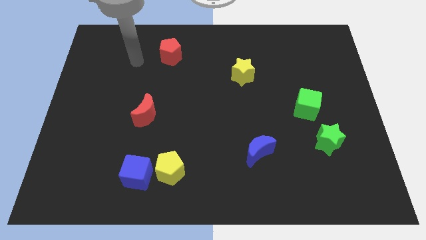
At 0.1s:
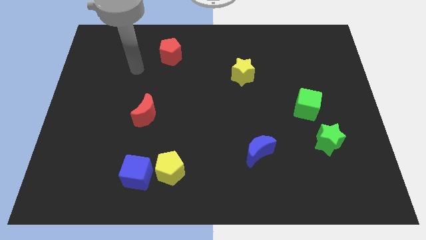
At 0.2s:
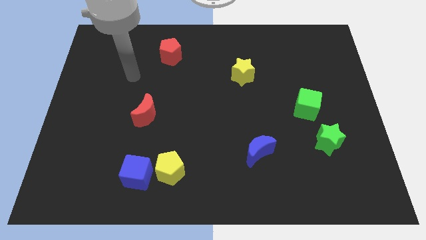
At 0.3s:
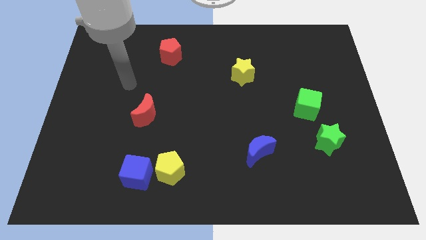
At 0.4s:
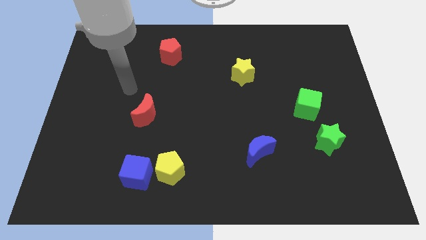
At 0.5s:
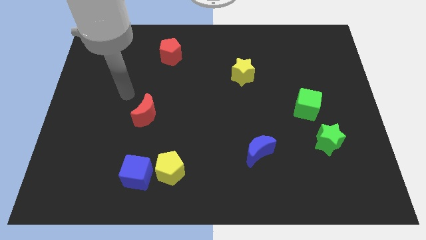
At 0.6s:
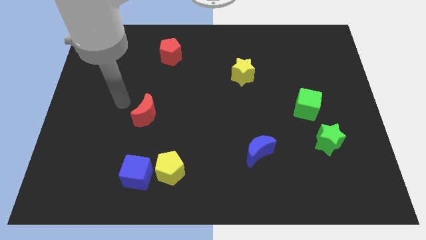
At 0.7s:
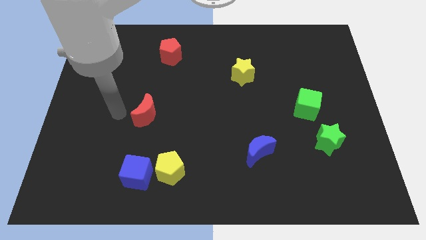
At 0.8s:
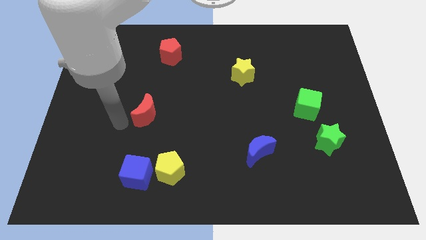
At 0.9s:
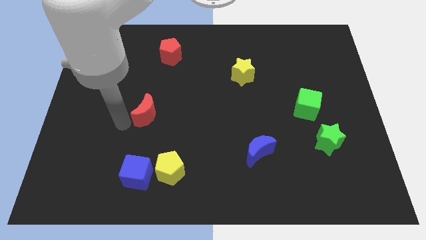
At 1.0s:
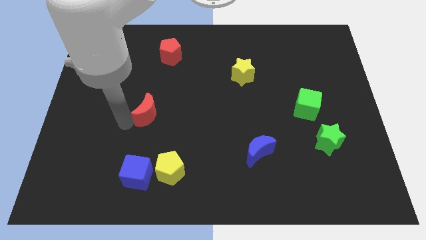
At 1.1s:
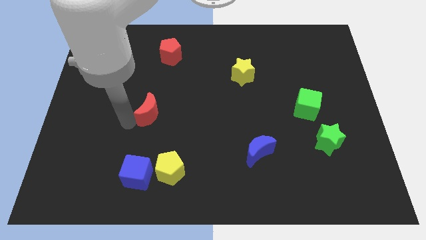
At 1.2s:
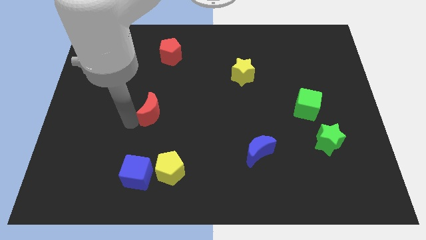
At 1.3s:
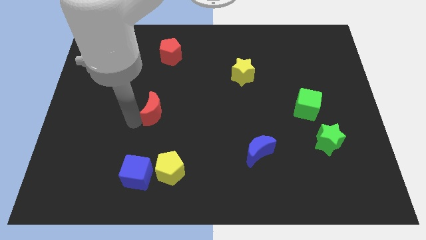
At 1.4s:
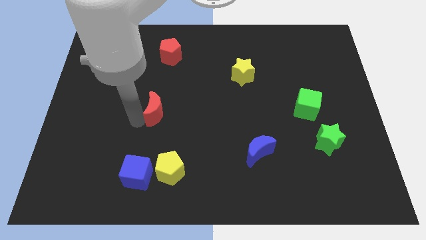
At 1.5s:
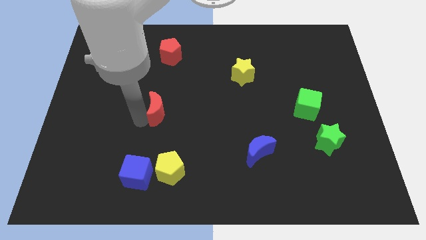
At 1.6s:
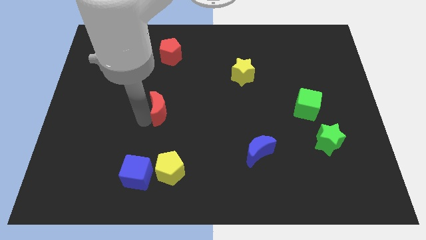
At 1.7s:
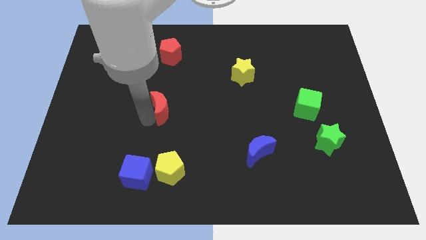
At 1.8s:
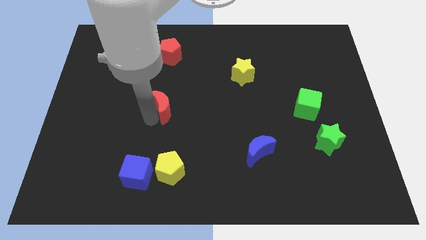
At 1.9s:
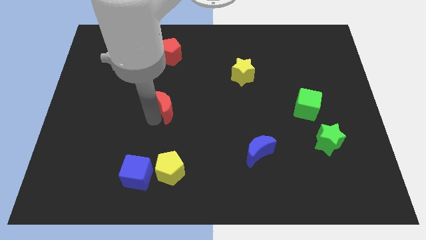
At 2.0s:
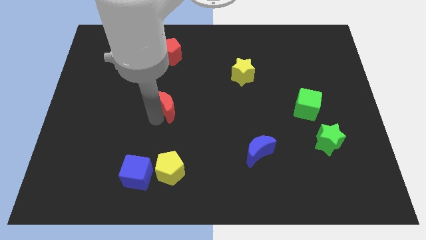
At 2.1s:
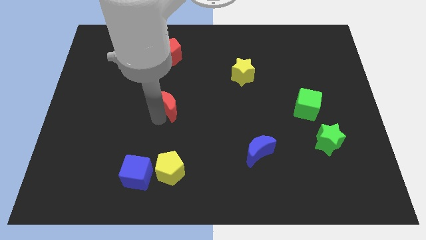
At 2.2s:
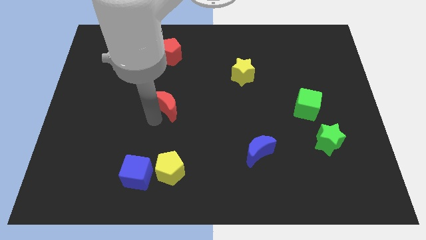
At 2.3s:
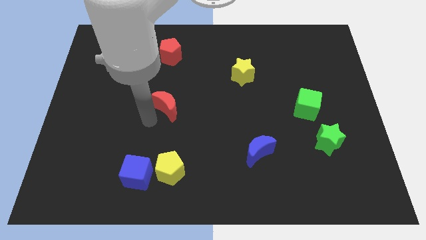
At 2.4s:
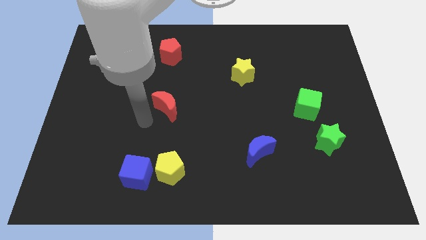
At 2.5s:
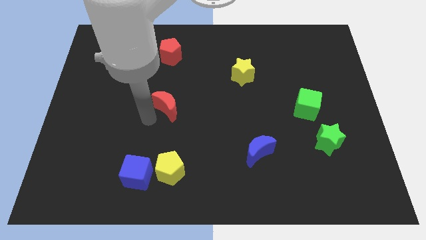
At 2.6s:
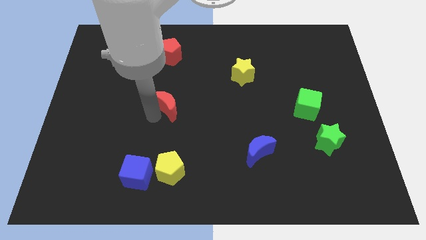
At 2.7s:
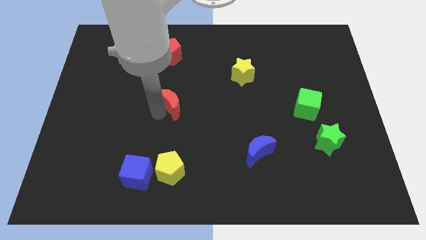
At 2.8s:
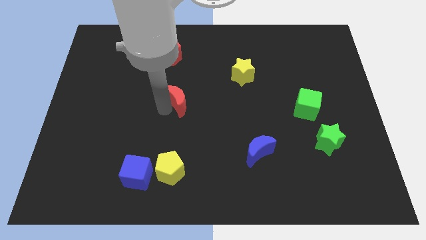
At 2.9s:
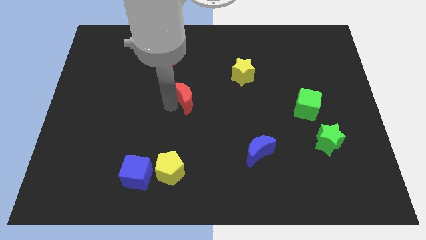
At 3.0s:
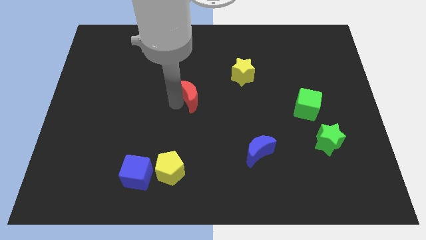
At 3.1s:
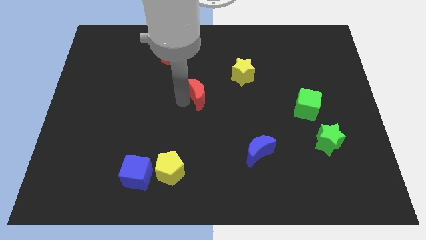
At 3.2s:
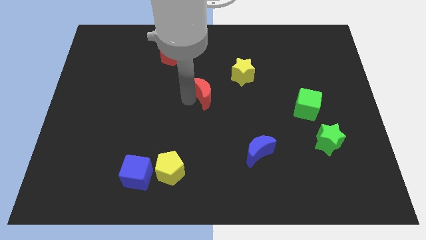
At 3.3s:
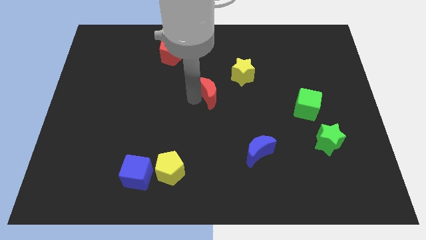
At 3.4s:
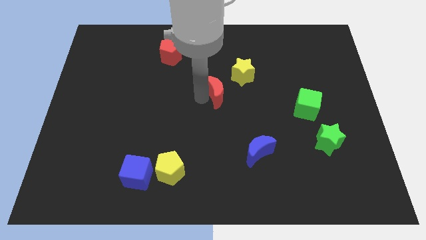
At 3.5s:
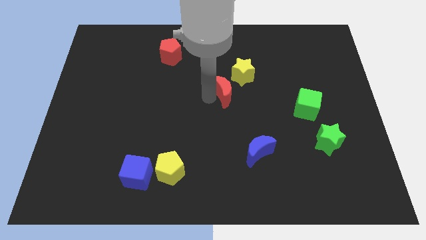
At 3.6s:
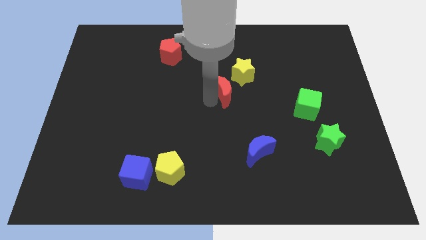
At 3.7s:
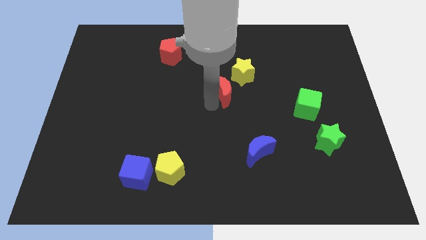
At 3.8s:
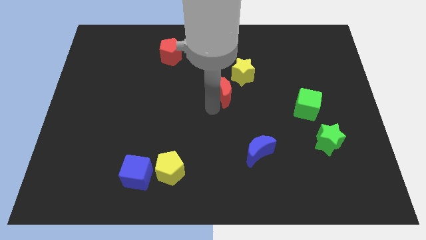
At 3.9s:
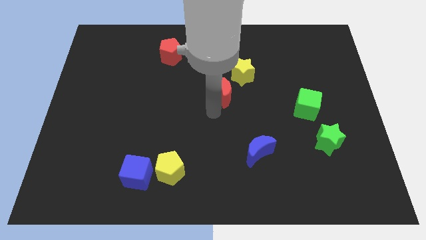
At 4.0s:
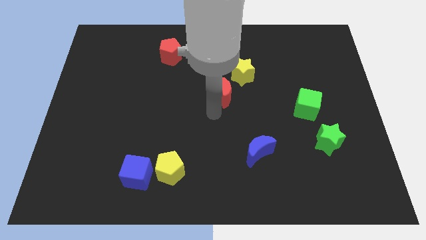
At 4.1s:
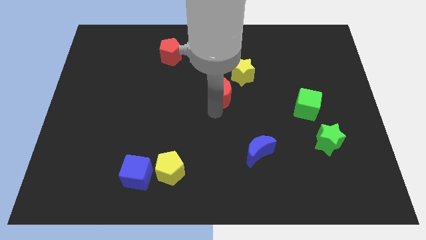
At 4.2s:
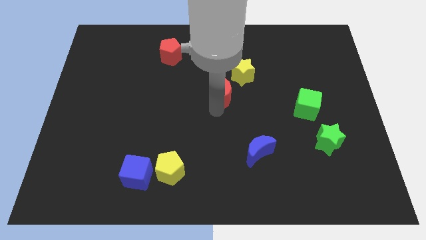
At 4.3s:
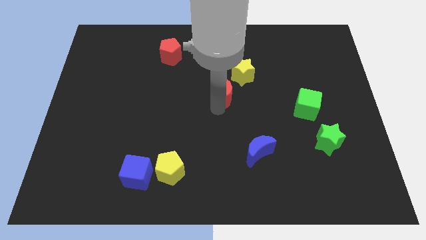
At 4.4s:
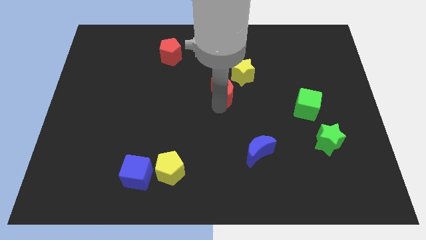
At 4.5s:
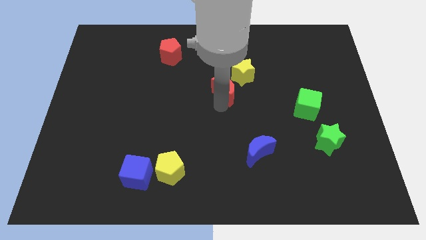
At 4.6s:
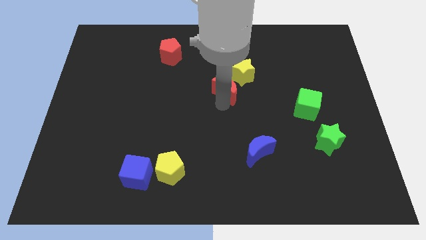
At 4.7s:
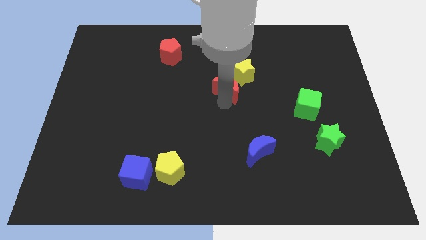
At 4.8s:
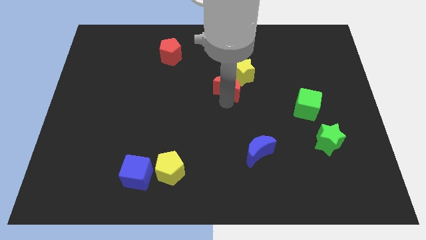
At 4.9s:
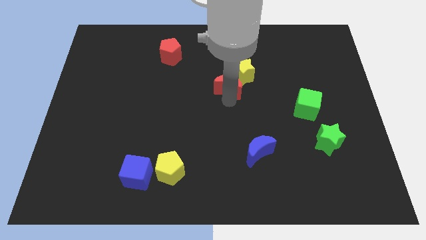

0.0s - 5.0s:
push the red moon next to the yellow star

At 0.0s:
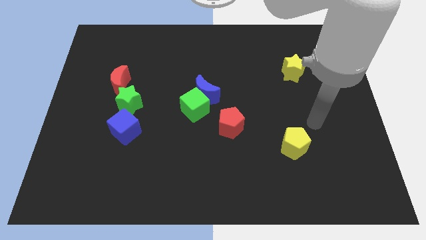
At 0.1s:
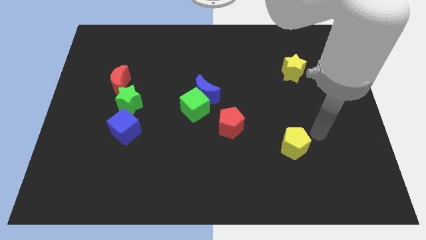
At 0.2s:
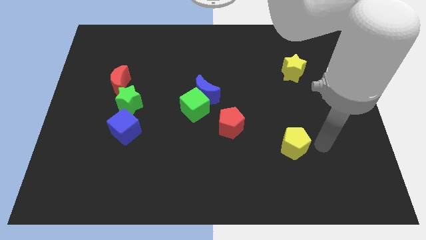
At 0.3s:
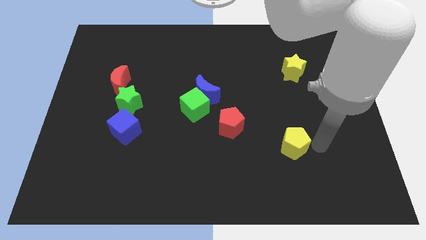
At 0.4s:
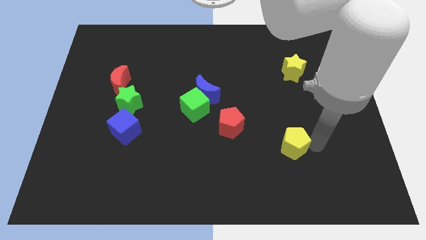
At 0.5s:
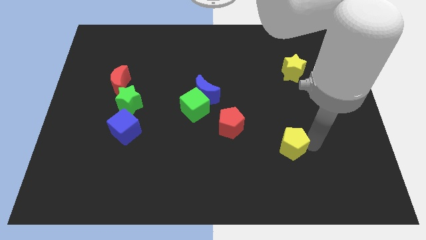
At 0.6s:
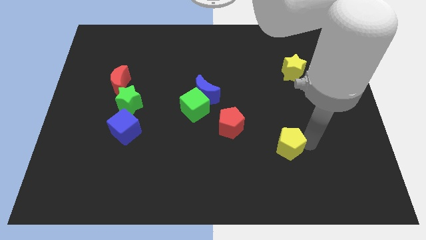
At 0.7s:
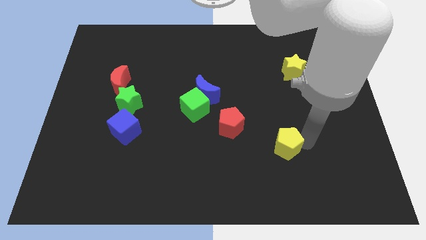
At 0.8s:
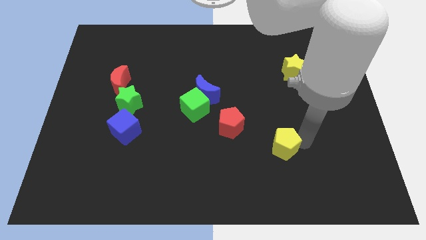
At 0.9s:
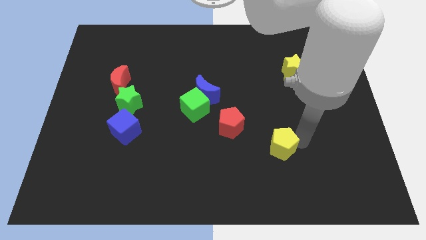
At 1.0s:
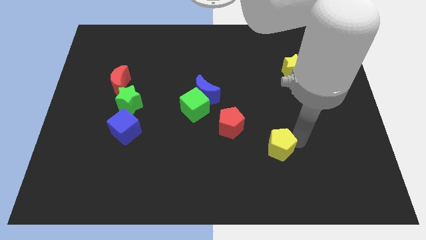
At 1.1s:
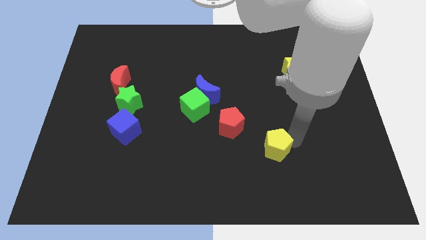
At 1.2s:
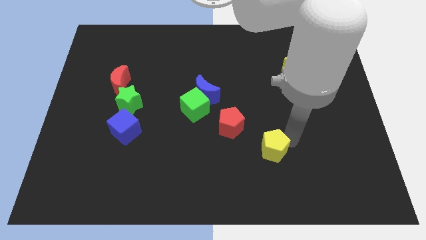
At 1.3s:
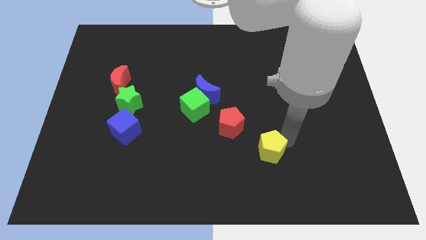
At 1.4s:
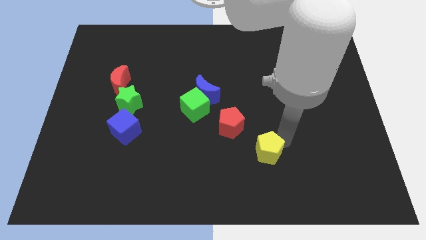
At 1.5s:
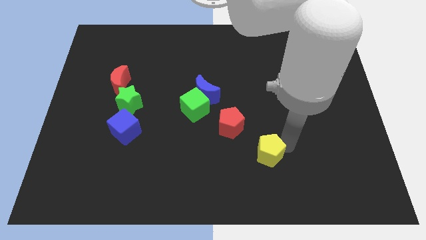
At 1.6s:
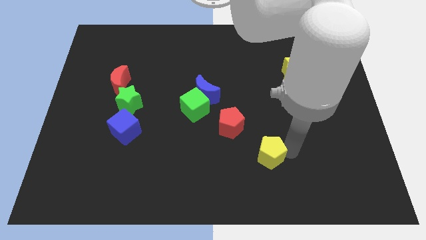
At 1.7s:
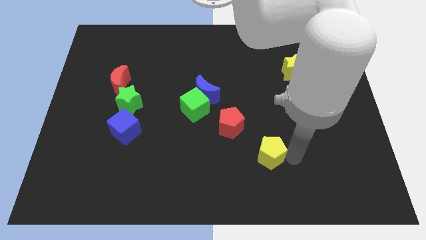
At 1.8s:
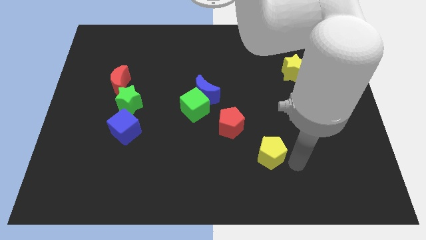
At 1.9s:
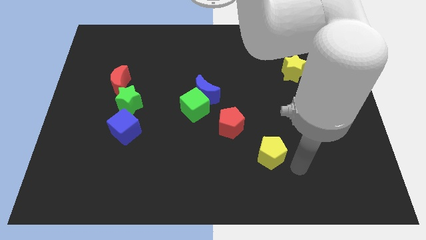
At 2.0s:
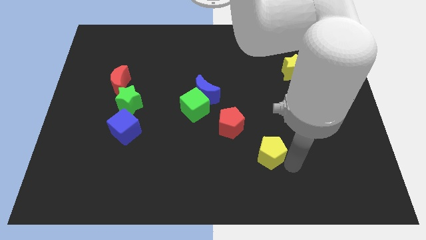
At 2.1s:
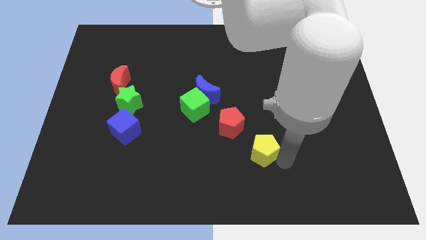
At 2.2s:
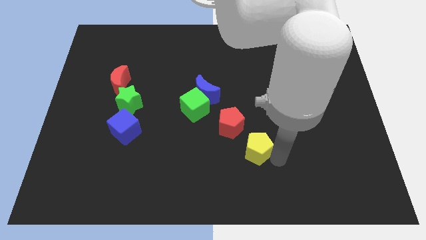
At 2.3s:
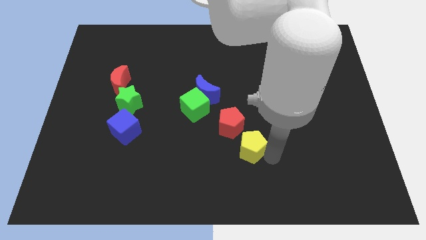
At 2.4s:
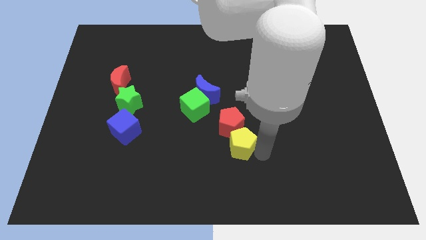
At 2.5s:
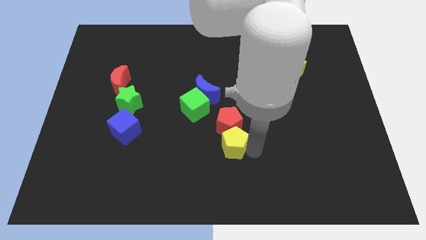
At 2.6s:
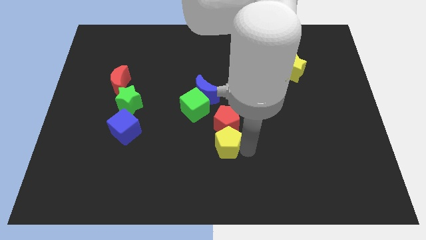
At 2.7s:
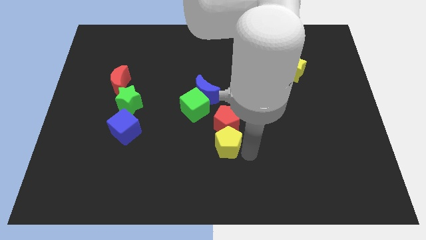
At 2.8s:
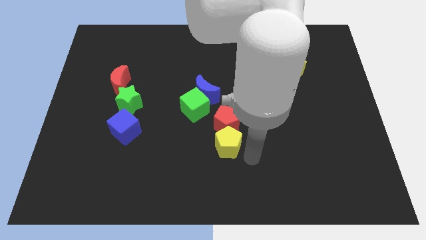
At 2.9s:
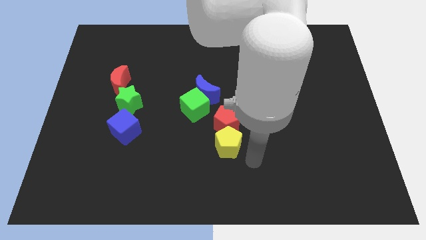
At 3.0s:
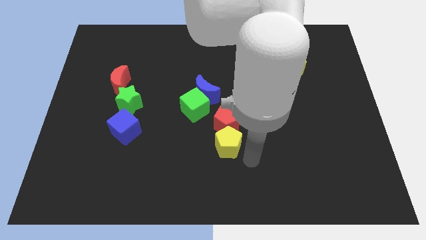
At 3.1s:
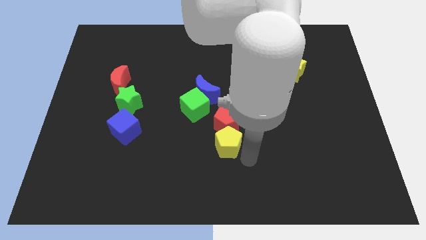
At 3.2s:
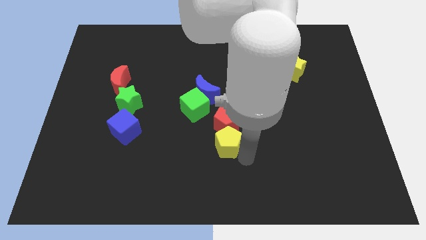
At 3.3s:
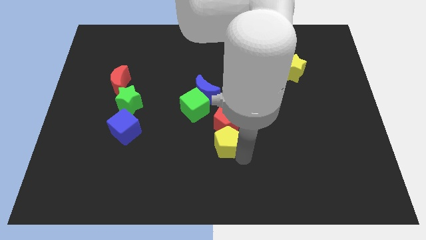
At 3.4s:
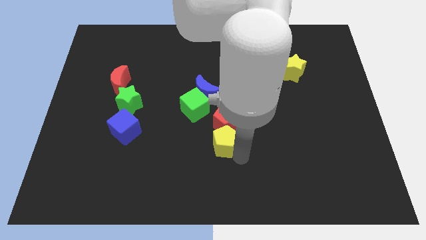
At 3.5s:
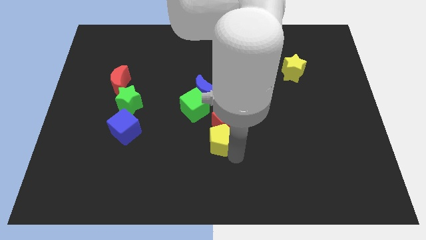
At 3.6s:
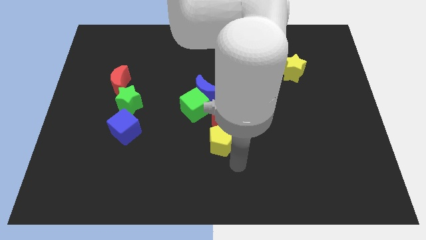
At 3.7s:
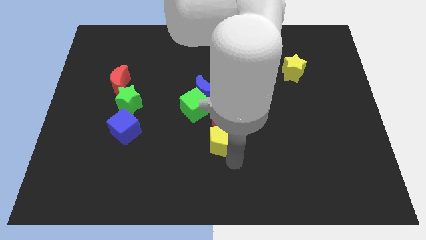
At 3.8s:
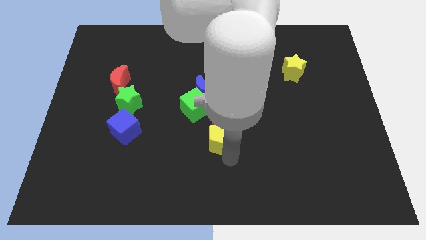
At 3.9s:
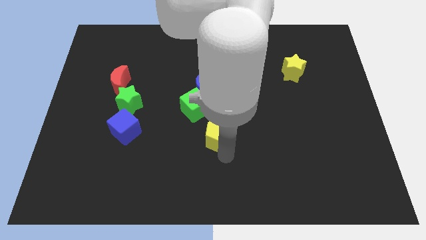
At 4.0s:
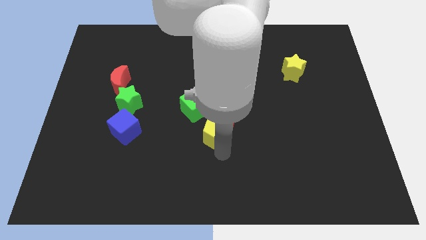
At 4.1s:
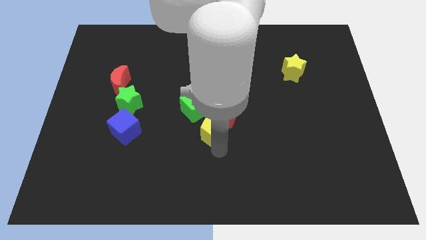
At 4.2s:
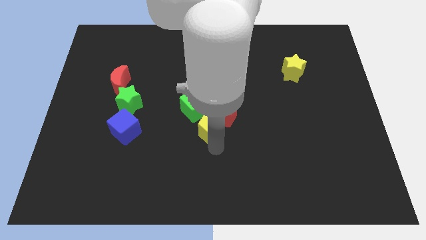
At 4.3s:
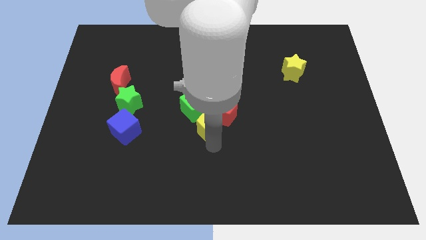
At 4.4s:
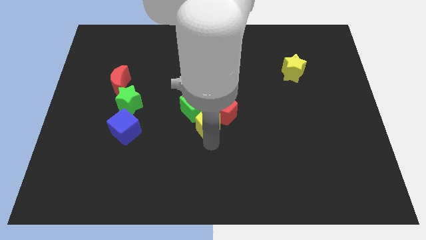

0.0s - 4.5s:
put the yellow pentagon towards the green cube
